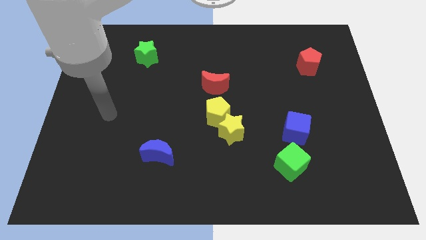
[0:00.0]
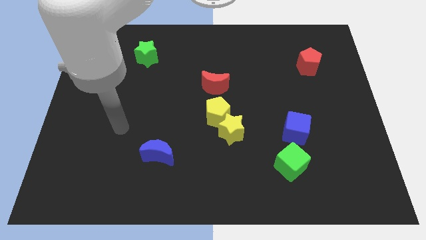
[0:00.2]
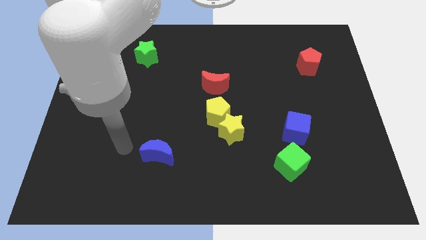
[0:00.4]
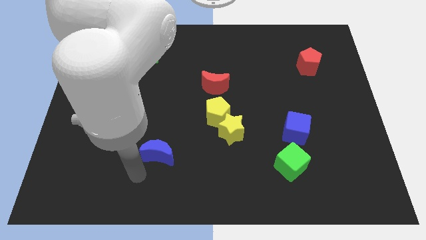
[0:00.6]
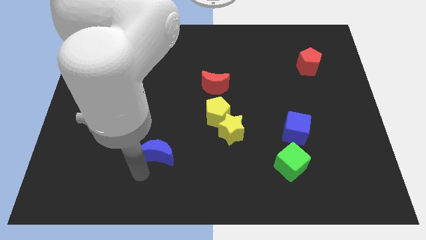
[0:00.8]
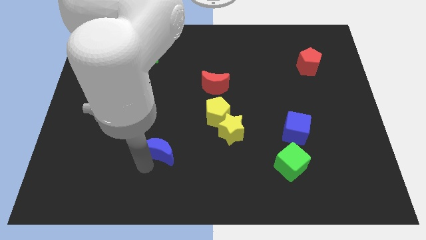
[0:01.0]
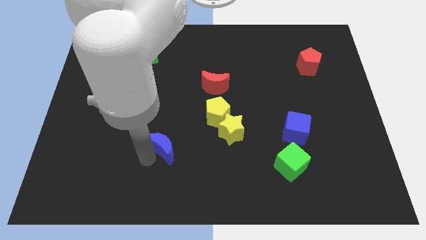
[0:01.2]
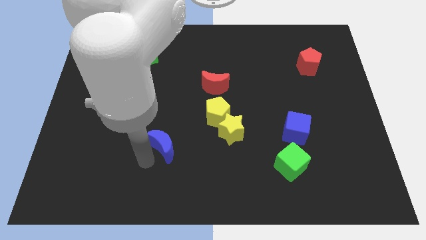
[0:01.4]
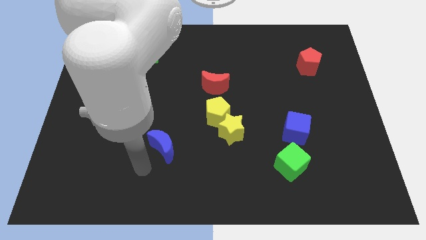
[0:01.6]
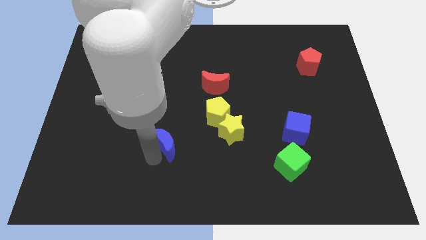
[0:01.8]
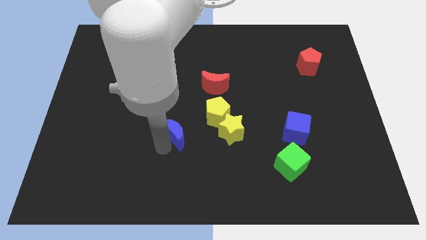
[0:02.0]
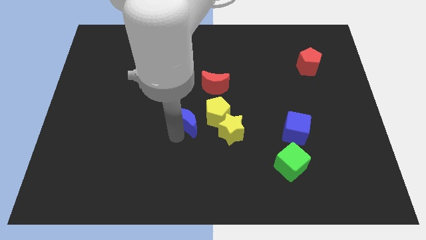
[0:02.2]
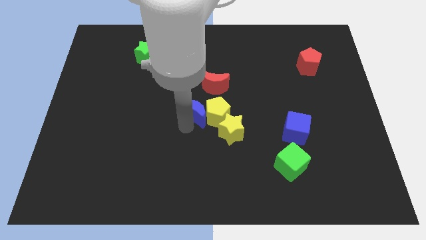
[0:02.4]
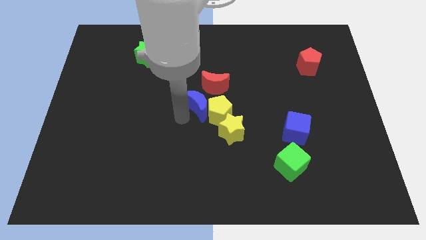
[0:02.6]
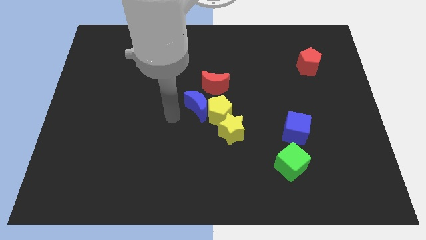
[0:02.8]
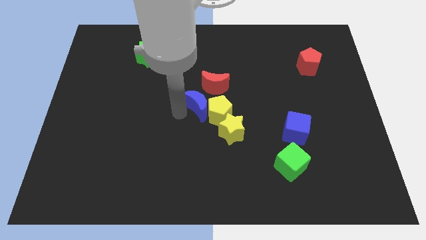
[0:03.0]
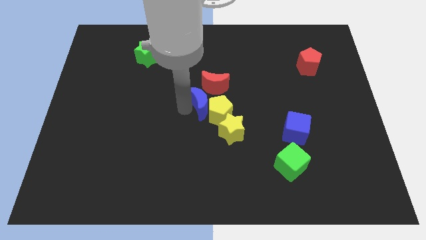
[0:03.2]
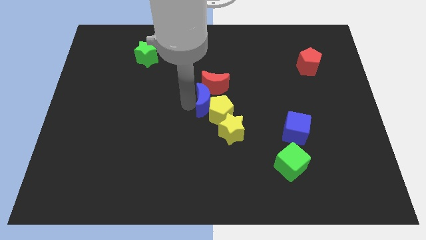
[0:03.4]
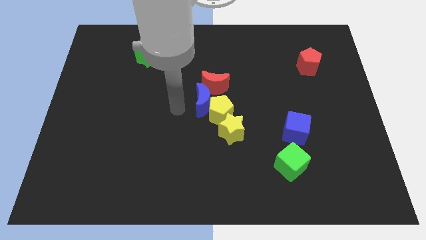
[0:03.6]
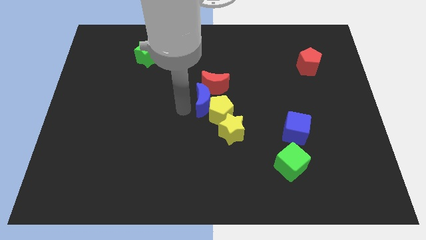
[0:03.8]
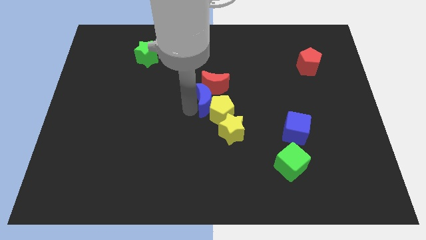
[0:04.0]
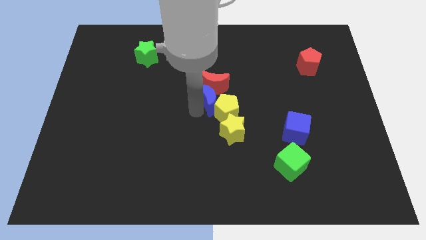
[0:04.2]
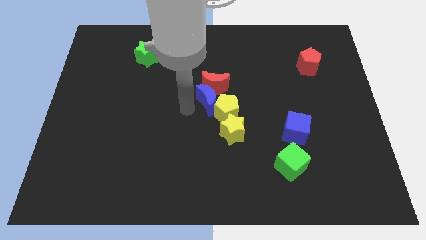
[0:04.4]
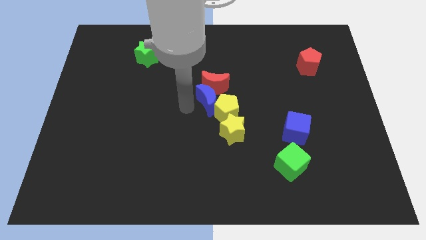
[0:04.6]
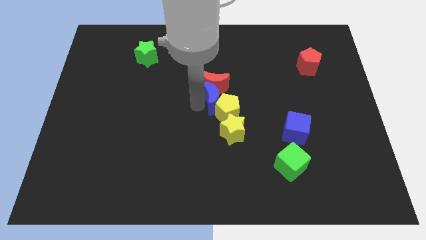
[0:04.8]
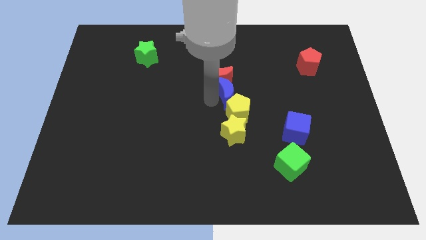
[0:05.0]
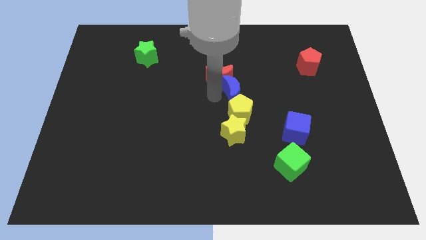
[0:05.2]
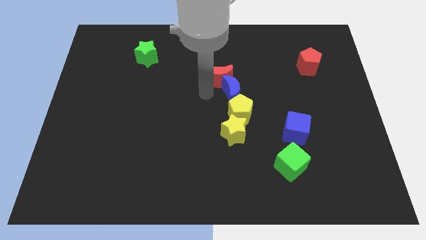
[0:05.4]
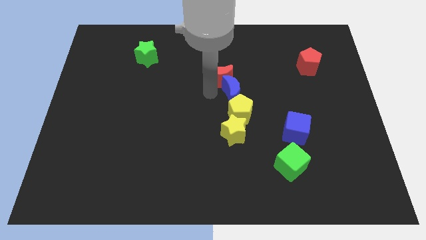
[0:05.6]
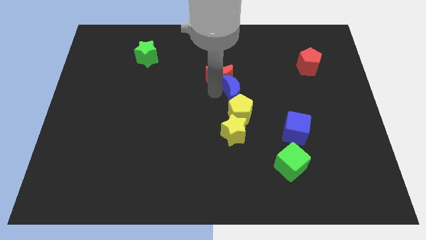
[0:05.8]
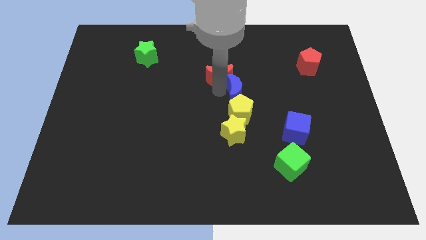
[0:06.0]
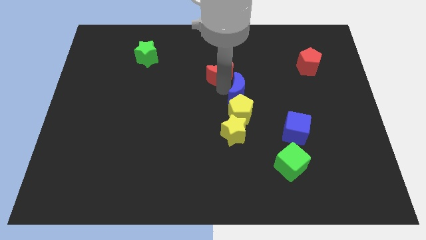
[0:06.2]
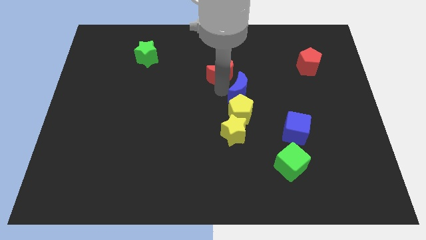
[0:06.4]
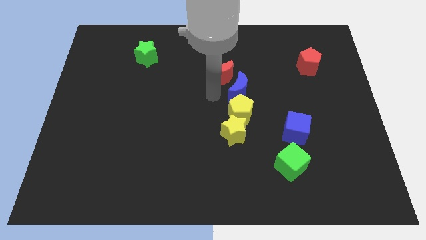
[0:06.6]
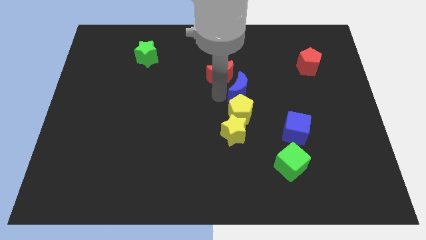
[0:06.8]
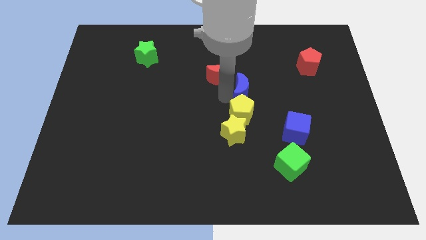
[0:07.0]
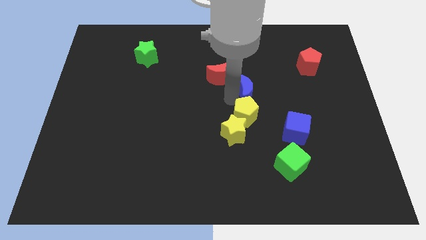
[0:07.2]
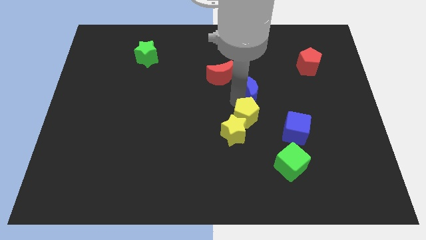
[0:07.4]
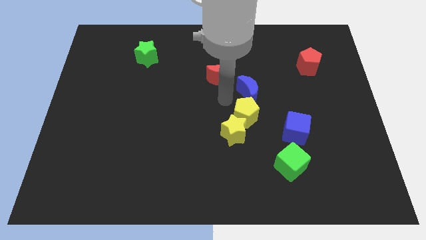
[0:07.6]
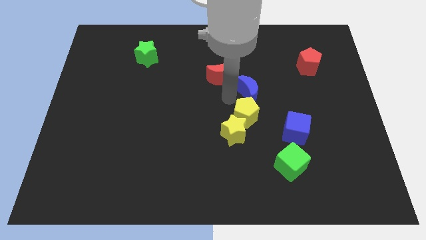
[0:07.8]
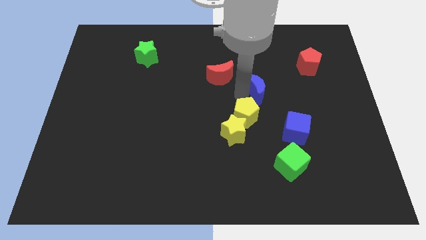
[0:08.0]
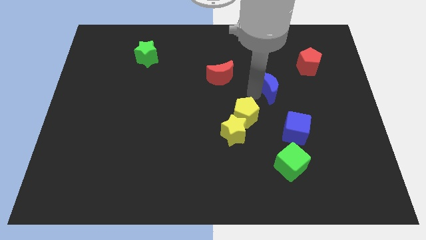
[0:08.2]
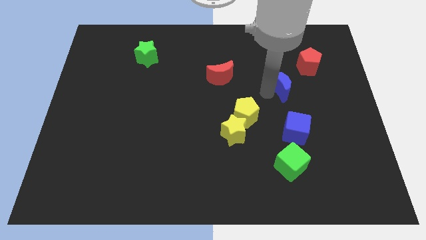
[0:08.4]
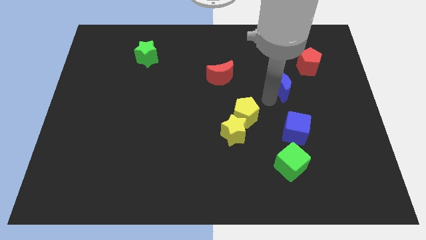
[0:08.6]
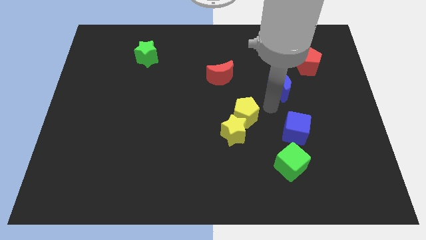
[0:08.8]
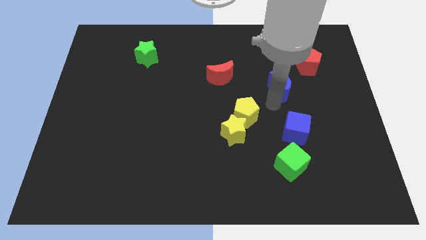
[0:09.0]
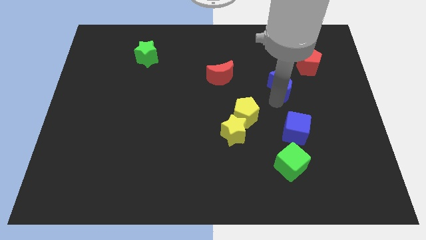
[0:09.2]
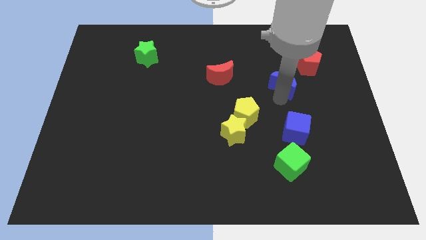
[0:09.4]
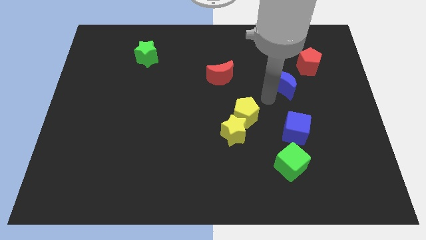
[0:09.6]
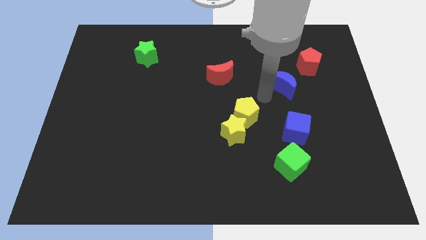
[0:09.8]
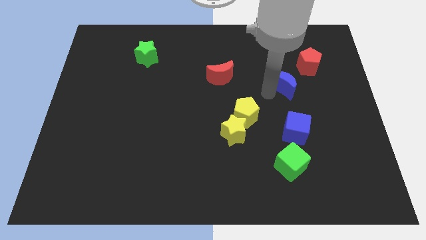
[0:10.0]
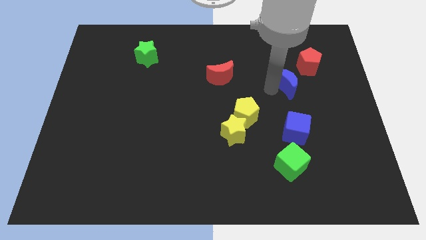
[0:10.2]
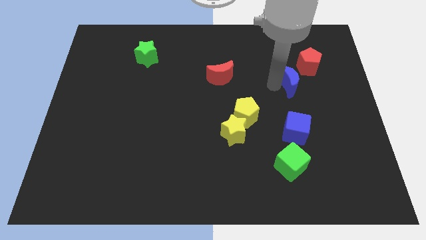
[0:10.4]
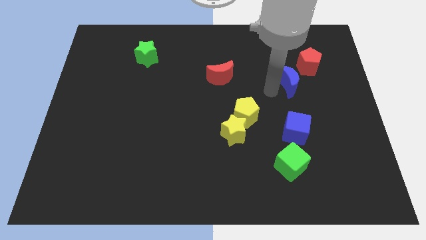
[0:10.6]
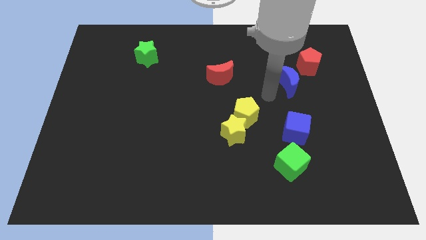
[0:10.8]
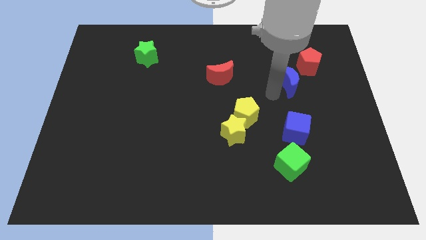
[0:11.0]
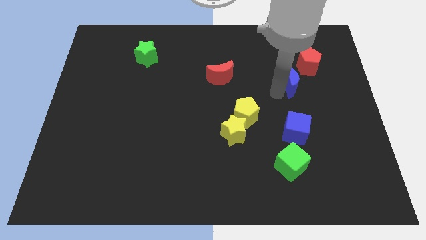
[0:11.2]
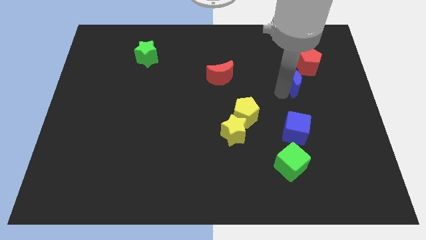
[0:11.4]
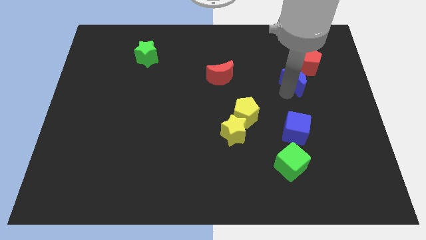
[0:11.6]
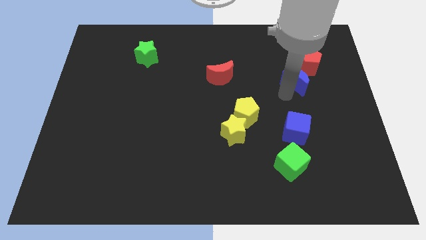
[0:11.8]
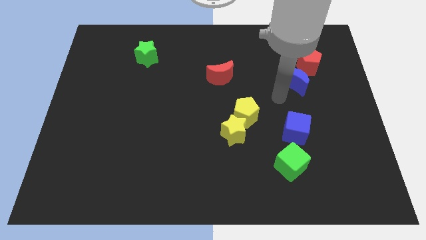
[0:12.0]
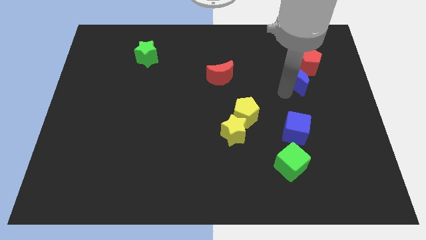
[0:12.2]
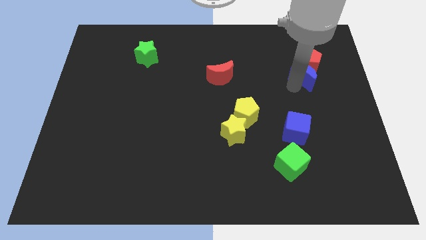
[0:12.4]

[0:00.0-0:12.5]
push the blue moon towards the red pentagon

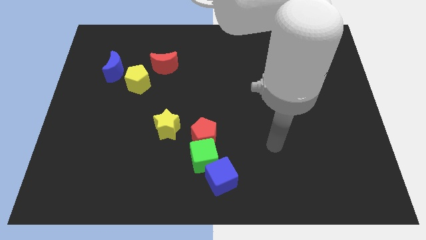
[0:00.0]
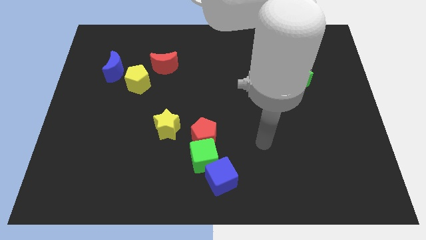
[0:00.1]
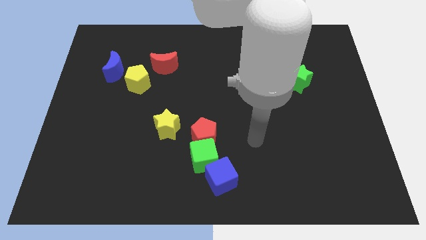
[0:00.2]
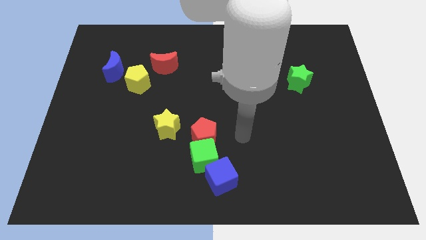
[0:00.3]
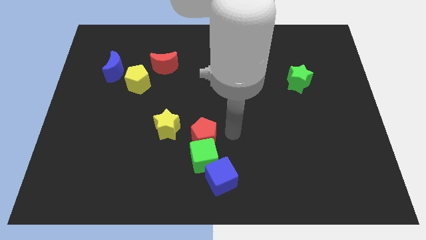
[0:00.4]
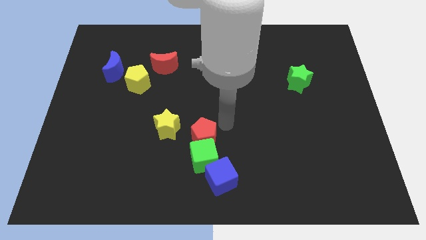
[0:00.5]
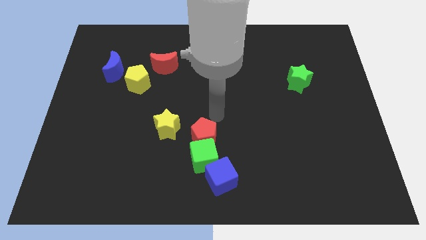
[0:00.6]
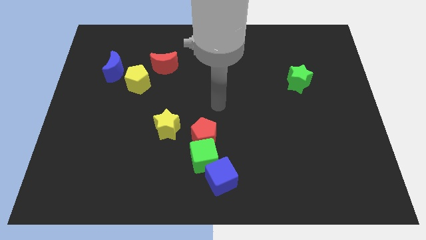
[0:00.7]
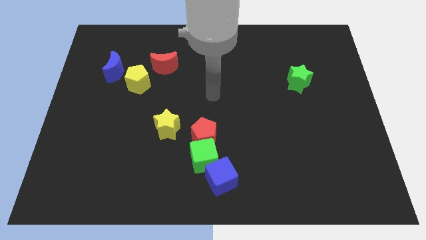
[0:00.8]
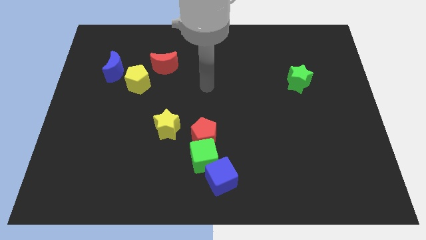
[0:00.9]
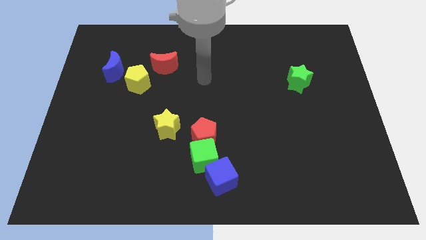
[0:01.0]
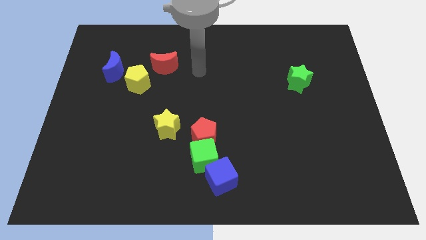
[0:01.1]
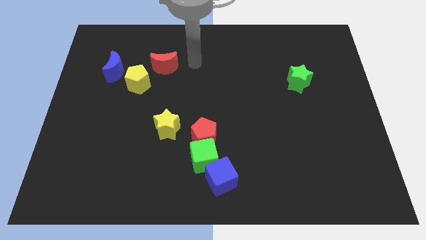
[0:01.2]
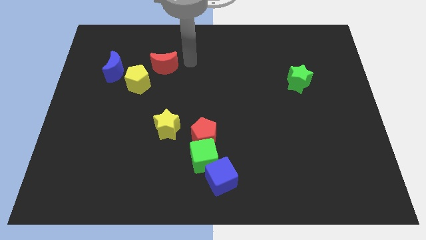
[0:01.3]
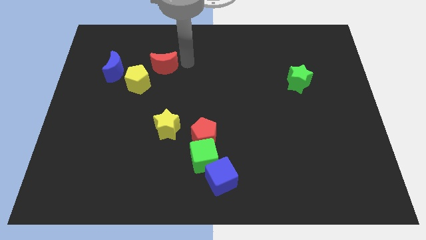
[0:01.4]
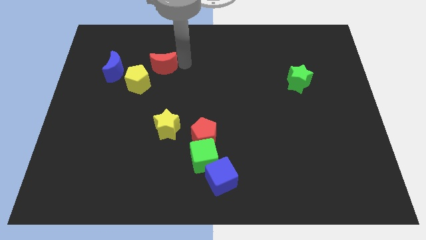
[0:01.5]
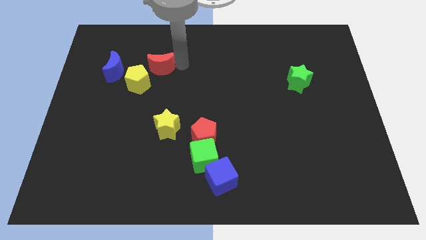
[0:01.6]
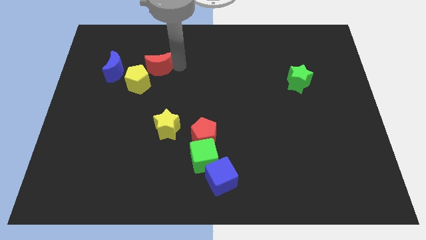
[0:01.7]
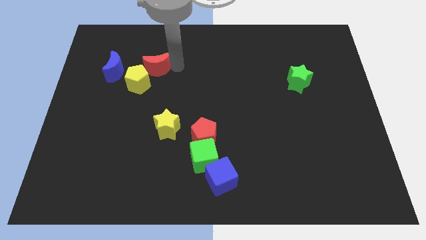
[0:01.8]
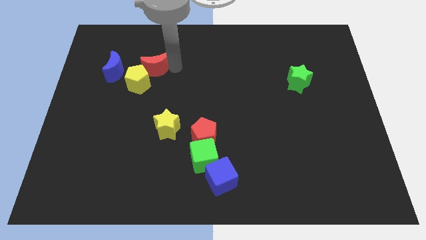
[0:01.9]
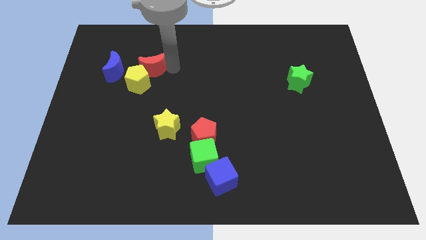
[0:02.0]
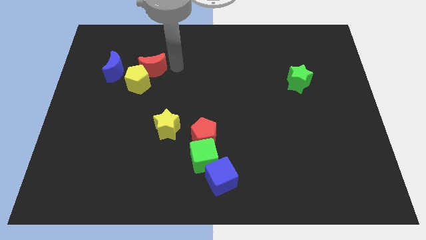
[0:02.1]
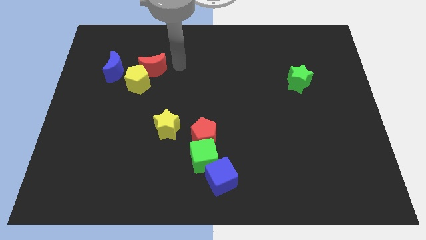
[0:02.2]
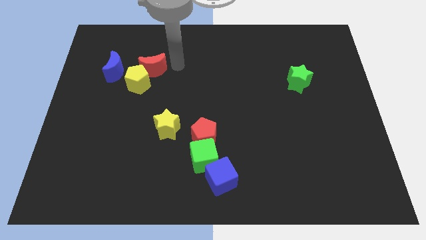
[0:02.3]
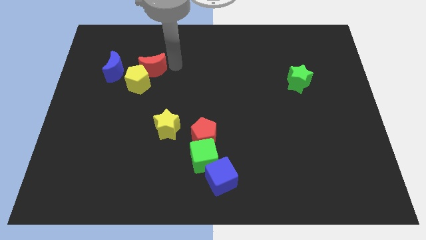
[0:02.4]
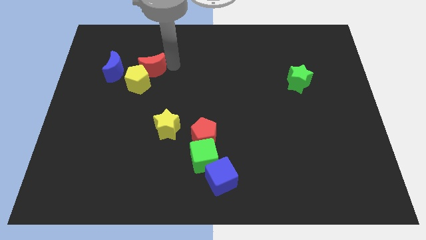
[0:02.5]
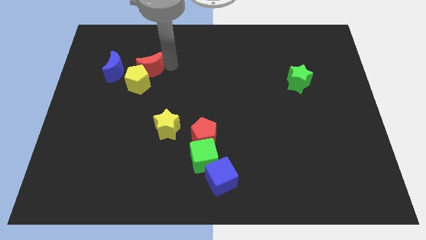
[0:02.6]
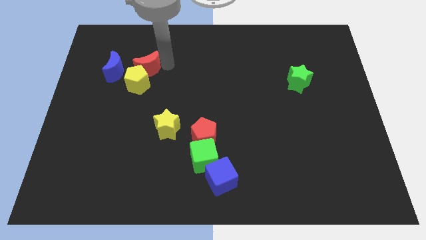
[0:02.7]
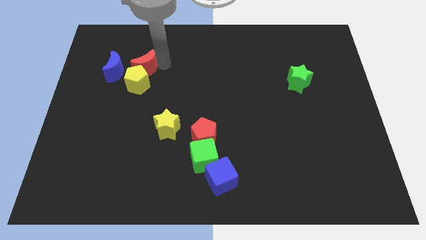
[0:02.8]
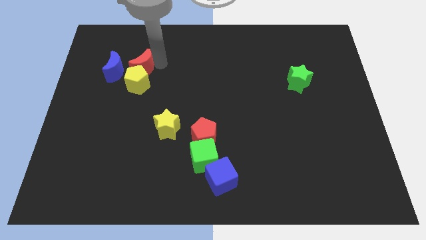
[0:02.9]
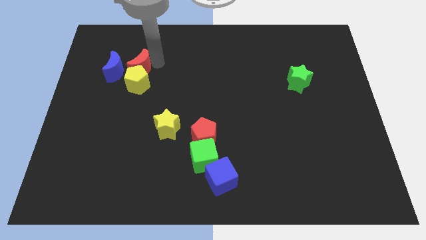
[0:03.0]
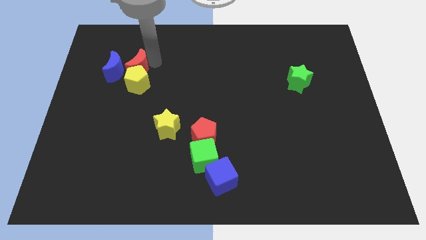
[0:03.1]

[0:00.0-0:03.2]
push the red moon close to the blue moon
